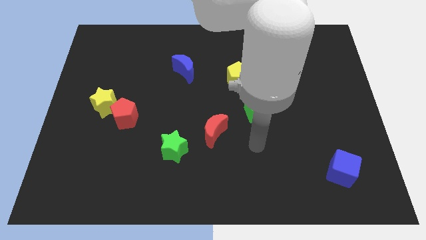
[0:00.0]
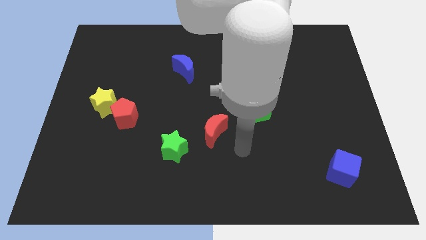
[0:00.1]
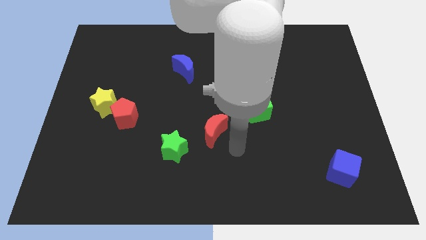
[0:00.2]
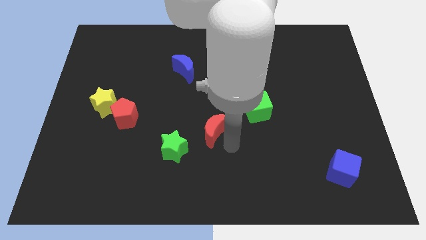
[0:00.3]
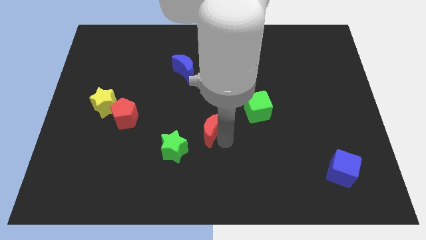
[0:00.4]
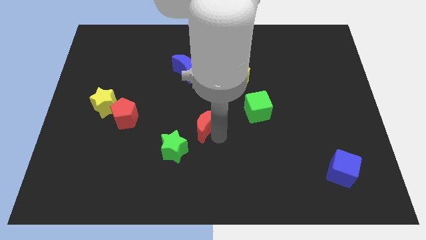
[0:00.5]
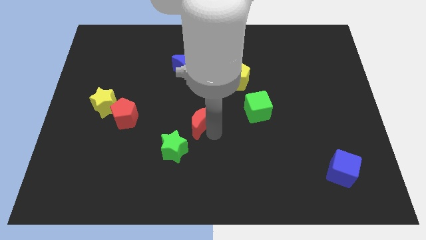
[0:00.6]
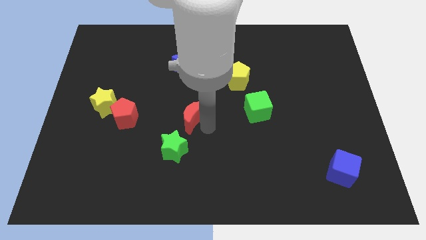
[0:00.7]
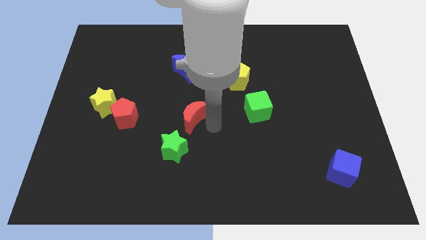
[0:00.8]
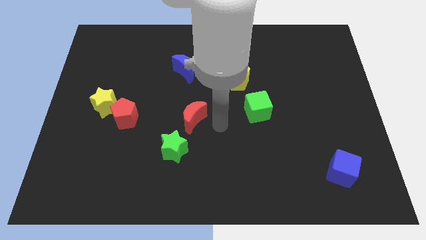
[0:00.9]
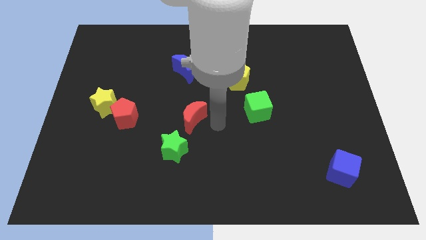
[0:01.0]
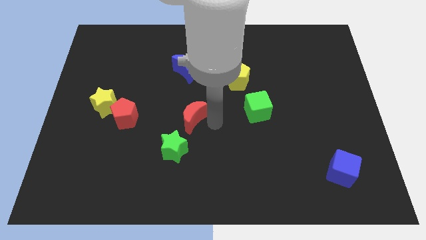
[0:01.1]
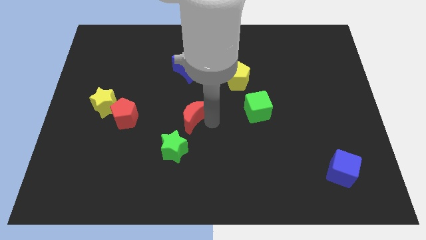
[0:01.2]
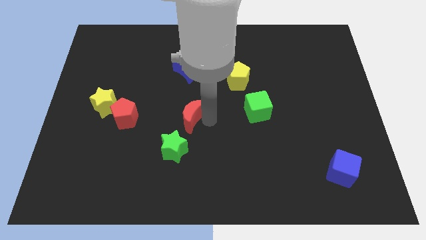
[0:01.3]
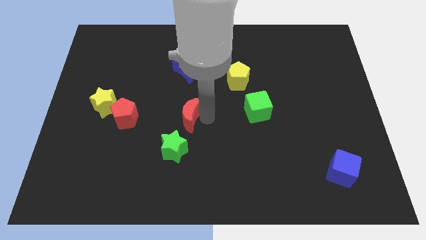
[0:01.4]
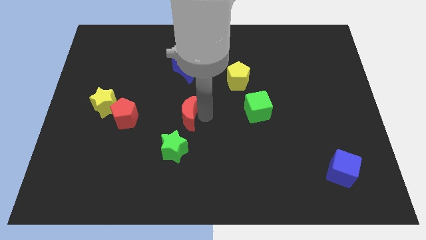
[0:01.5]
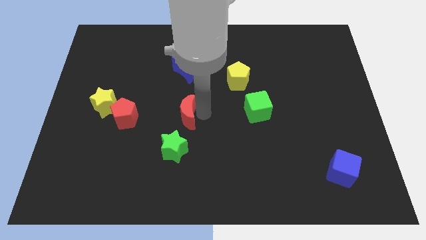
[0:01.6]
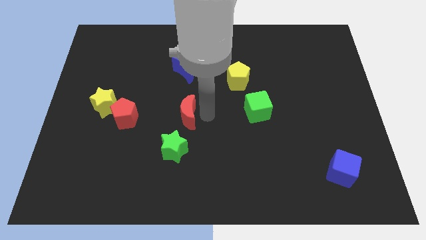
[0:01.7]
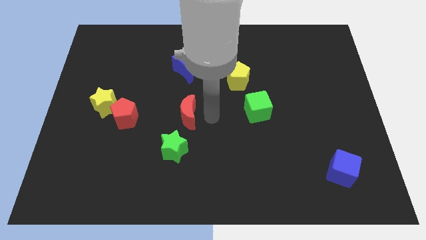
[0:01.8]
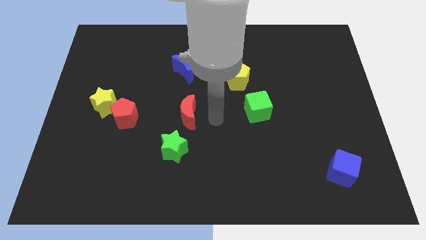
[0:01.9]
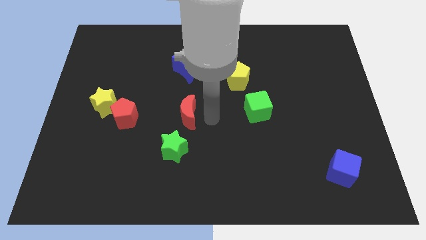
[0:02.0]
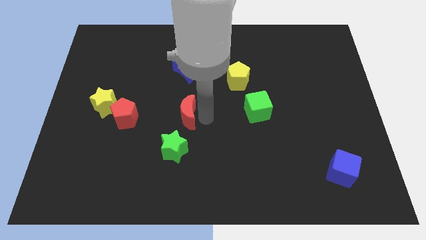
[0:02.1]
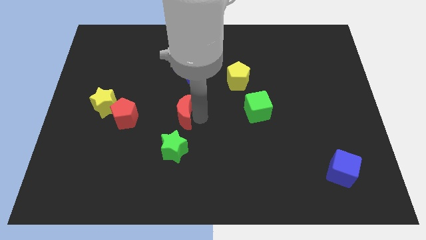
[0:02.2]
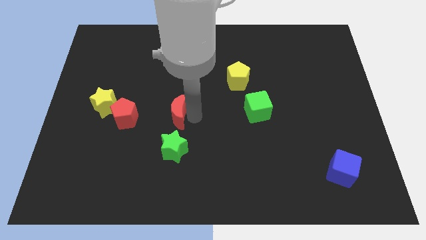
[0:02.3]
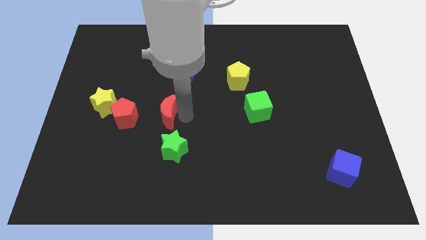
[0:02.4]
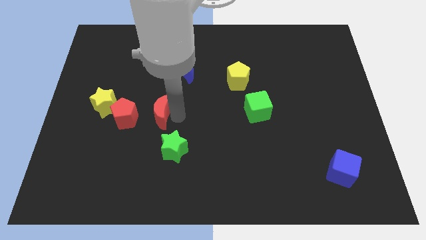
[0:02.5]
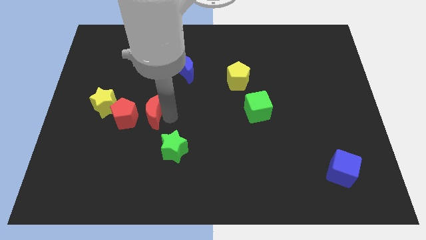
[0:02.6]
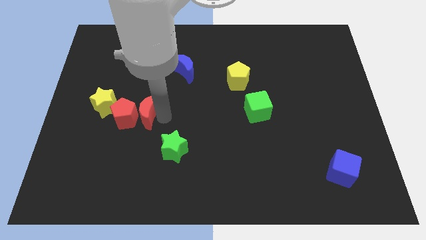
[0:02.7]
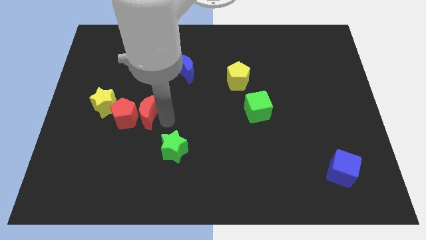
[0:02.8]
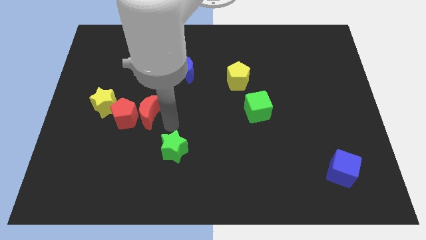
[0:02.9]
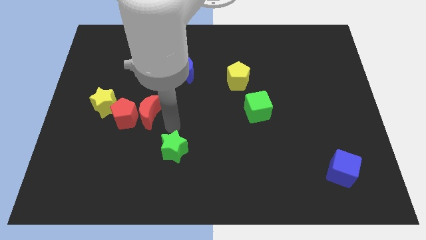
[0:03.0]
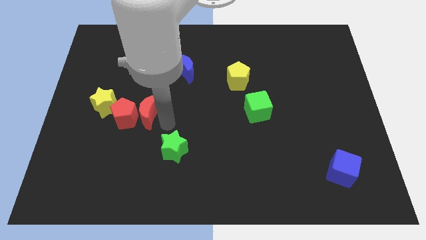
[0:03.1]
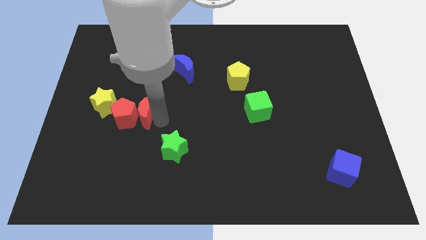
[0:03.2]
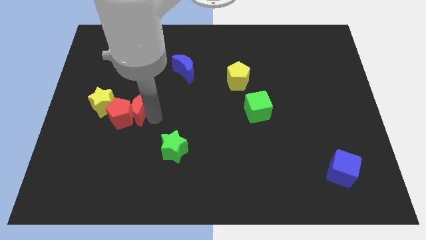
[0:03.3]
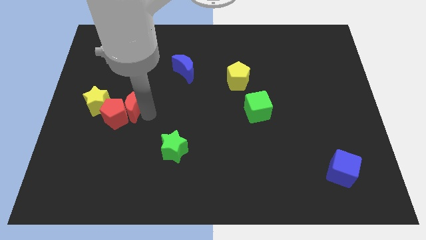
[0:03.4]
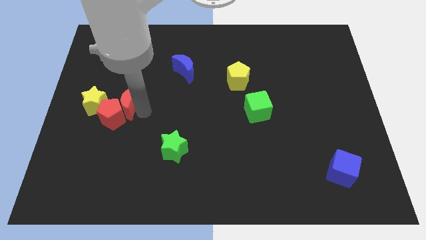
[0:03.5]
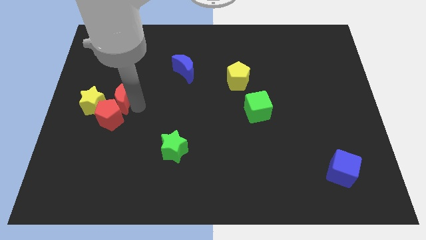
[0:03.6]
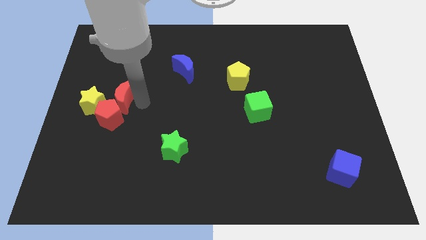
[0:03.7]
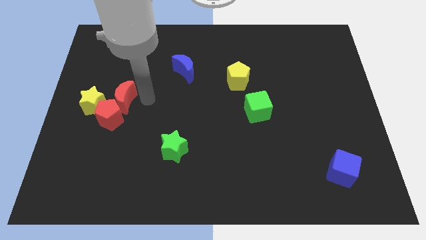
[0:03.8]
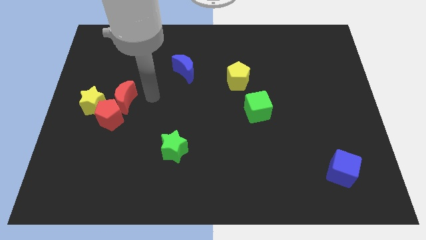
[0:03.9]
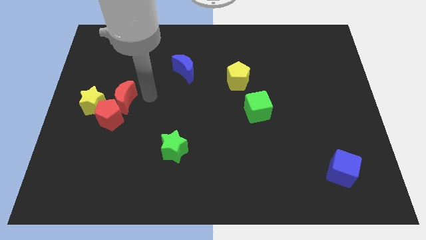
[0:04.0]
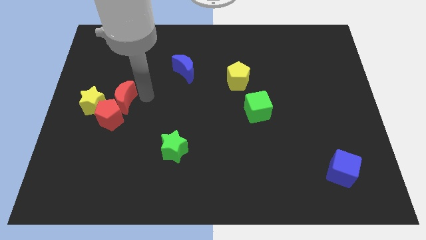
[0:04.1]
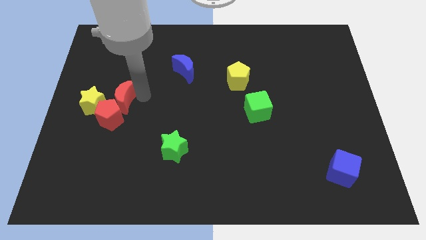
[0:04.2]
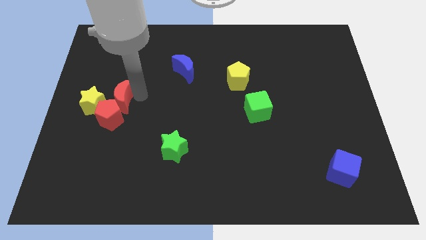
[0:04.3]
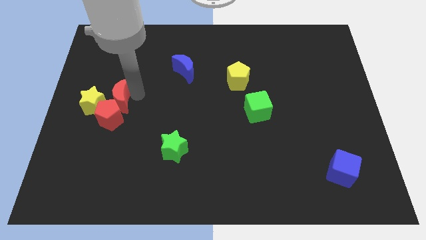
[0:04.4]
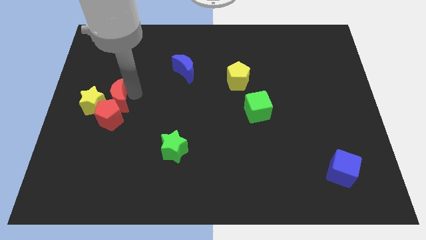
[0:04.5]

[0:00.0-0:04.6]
move the red moon to the yellow star

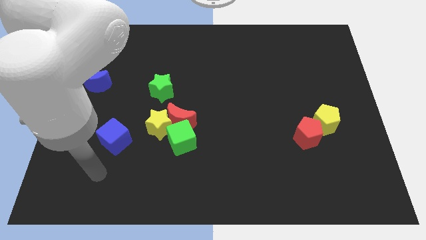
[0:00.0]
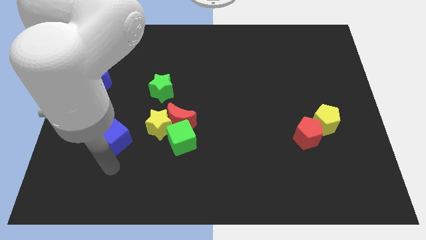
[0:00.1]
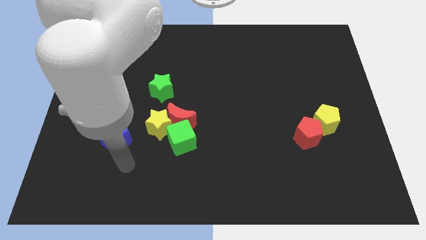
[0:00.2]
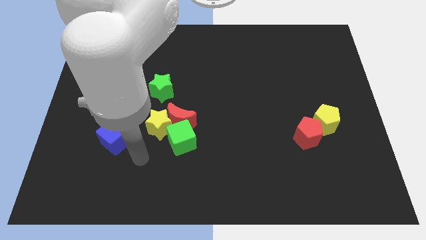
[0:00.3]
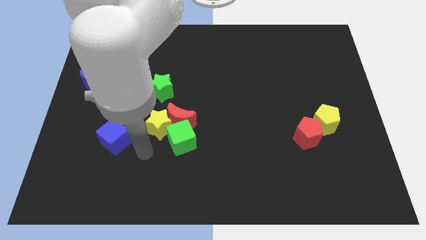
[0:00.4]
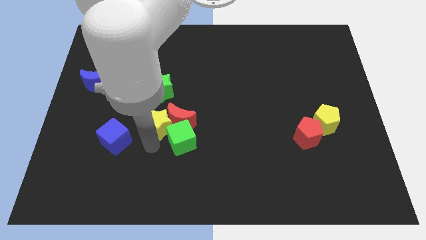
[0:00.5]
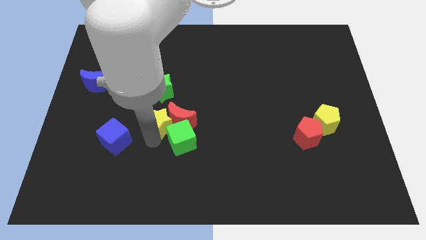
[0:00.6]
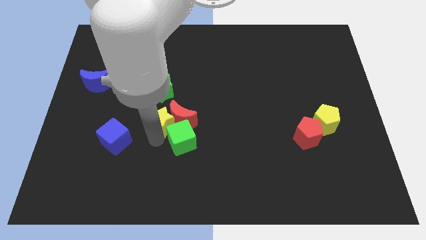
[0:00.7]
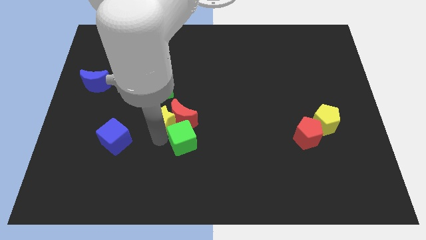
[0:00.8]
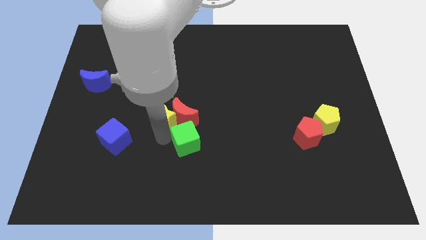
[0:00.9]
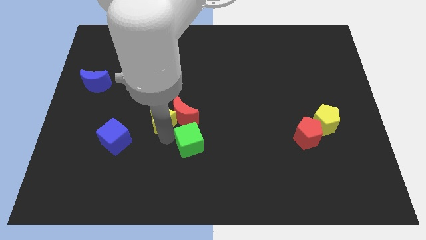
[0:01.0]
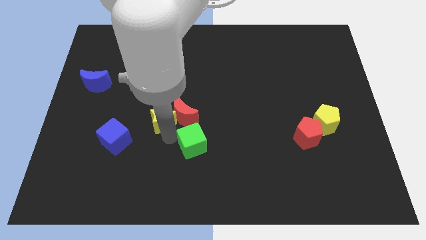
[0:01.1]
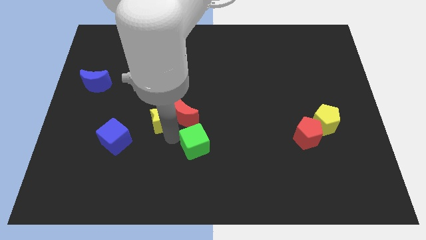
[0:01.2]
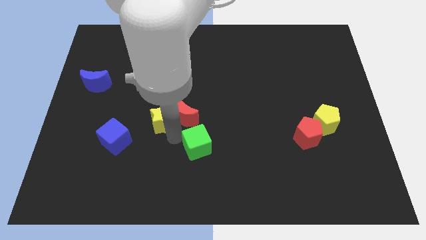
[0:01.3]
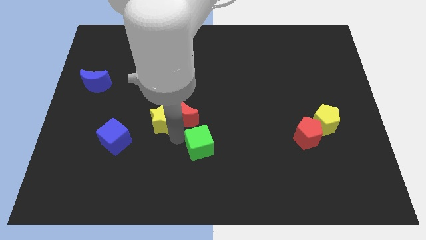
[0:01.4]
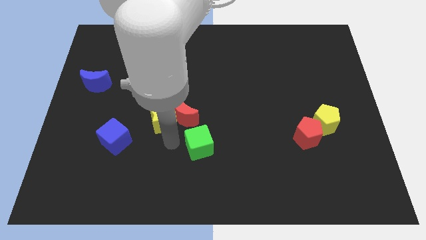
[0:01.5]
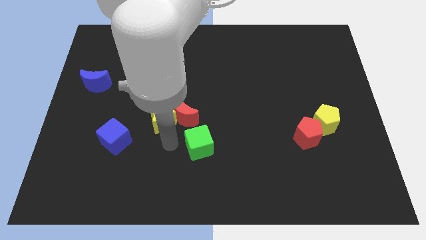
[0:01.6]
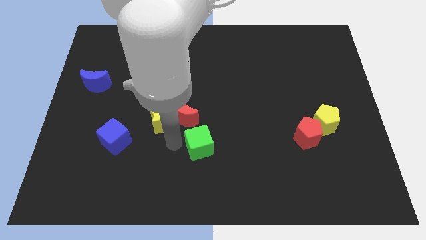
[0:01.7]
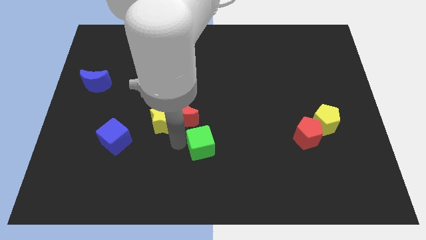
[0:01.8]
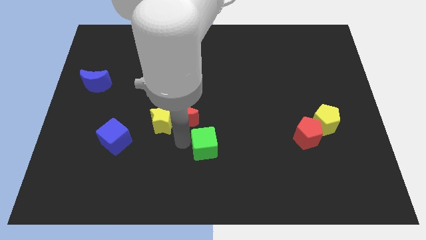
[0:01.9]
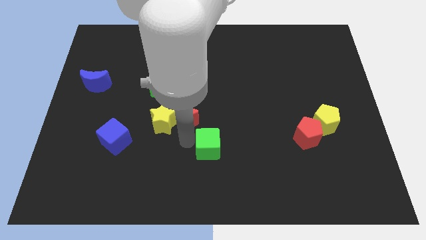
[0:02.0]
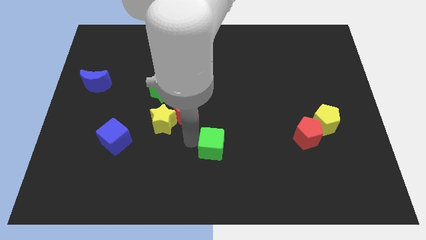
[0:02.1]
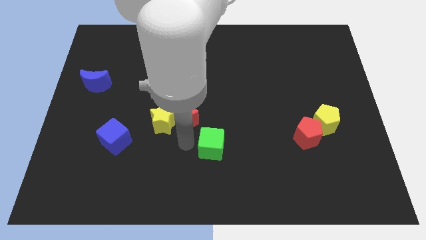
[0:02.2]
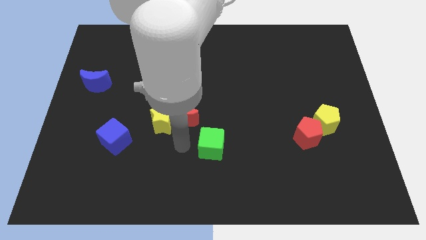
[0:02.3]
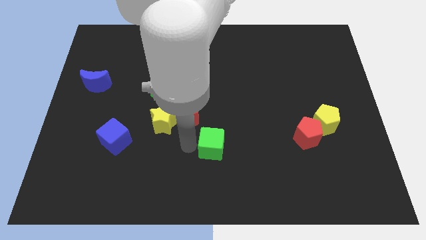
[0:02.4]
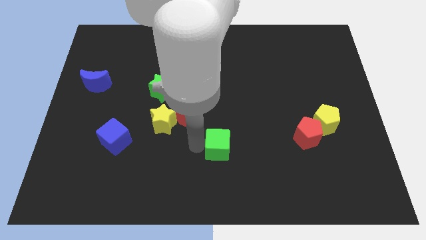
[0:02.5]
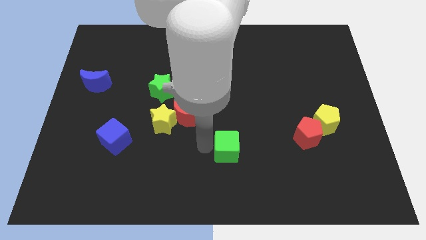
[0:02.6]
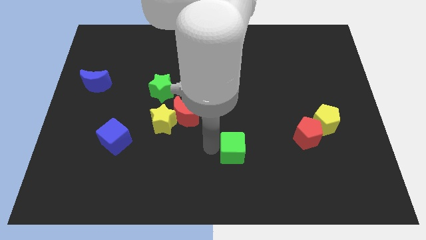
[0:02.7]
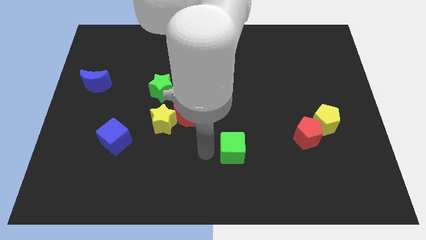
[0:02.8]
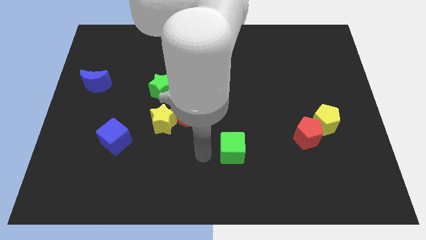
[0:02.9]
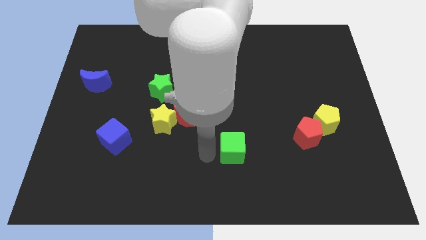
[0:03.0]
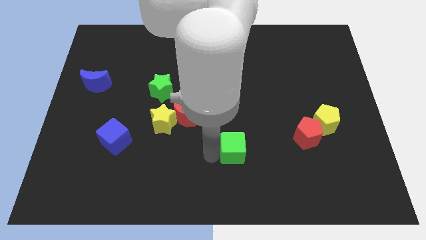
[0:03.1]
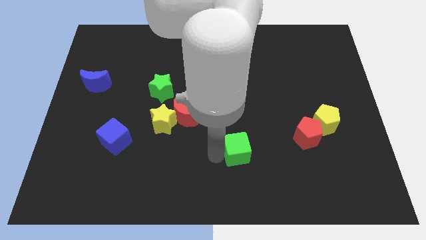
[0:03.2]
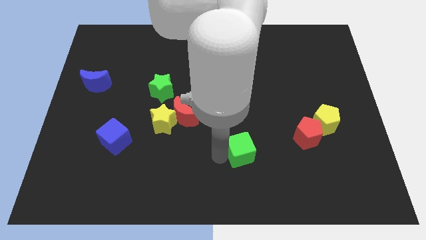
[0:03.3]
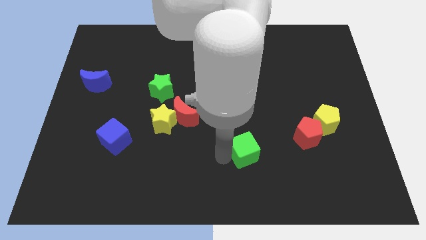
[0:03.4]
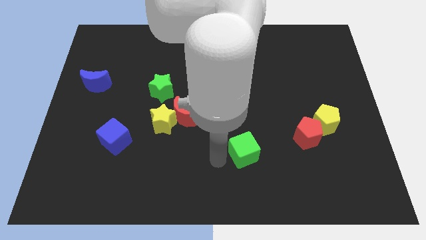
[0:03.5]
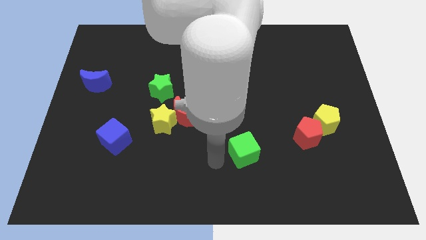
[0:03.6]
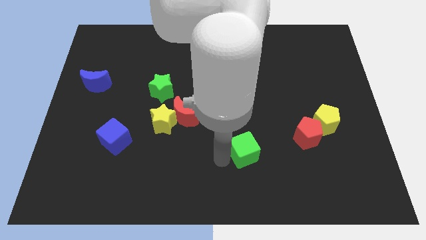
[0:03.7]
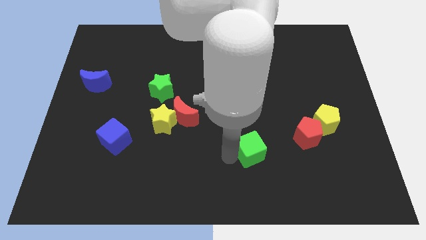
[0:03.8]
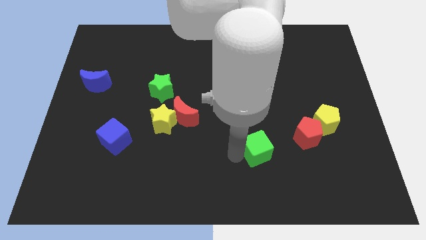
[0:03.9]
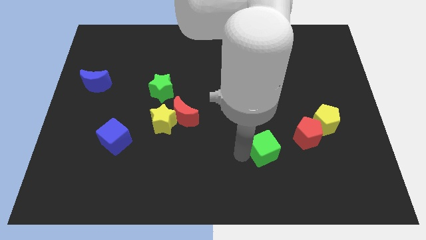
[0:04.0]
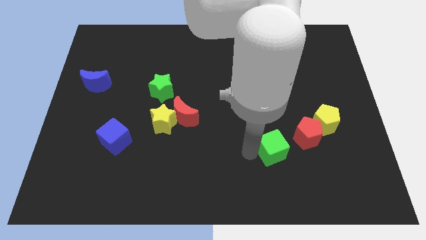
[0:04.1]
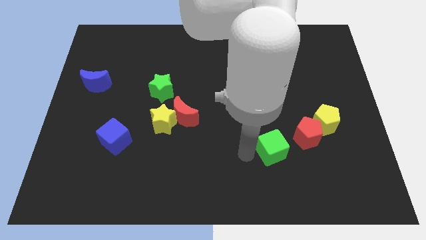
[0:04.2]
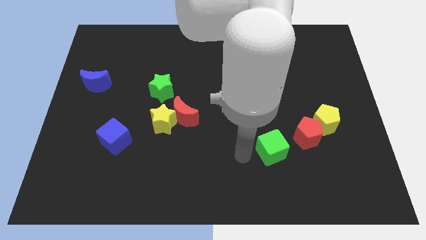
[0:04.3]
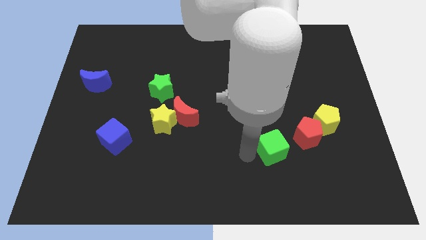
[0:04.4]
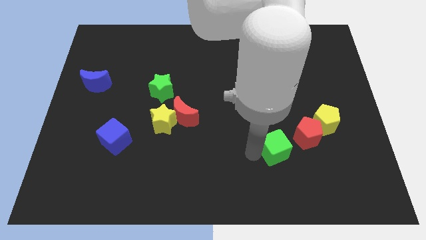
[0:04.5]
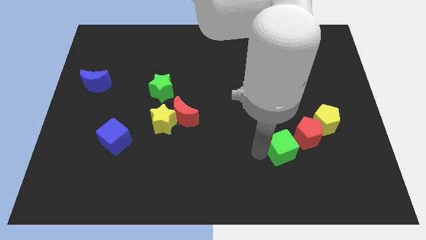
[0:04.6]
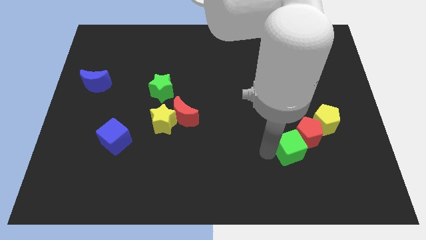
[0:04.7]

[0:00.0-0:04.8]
push the green cube close to the red pentagon
